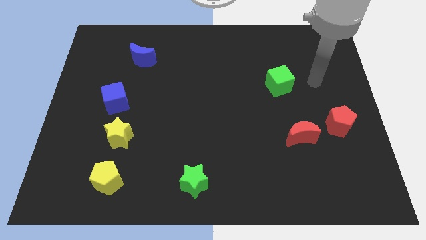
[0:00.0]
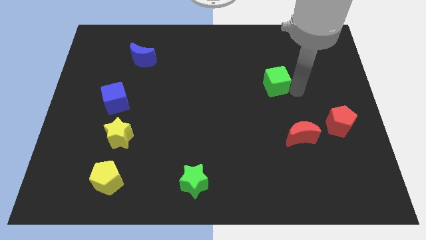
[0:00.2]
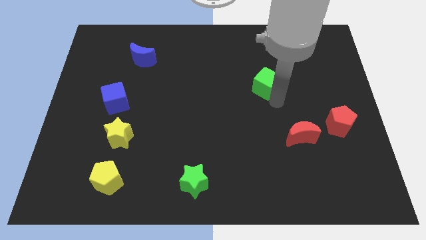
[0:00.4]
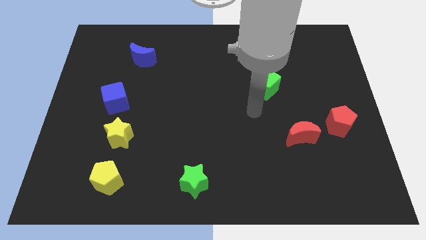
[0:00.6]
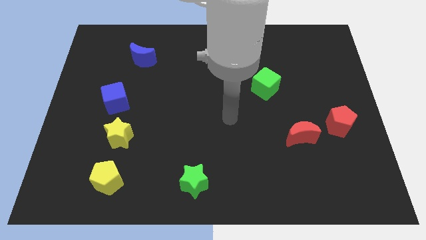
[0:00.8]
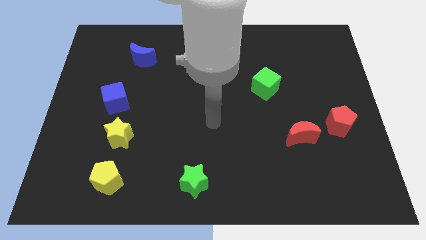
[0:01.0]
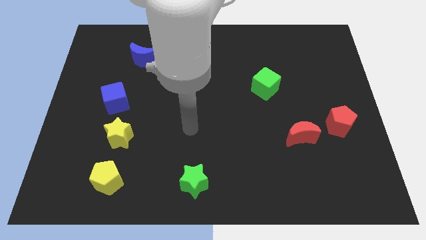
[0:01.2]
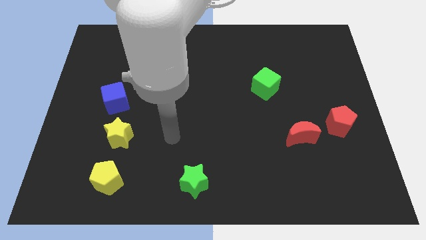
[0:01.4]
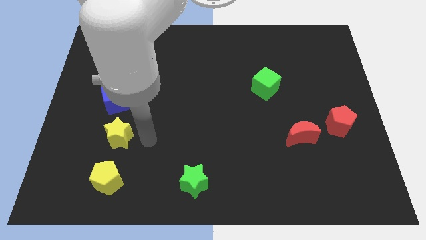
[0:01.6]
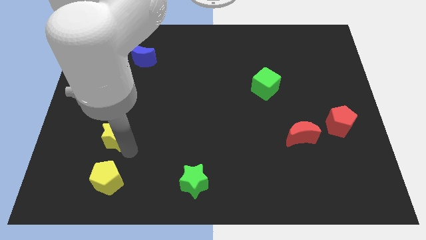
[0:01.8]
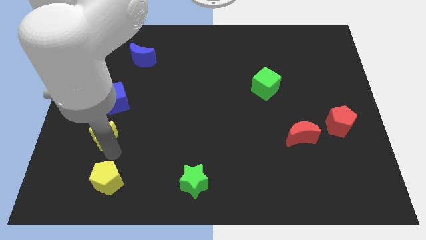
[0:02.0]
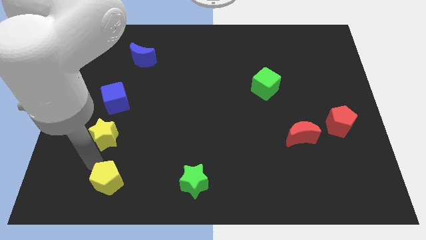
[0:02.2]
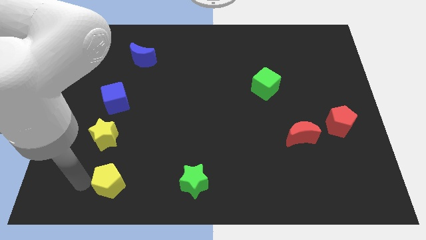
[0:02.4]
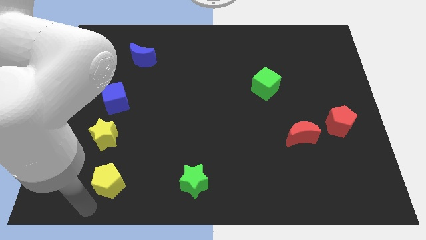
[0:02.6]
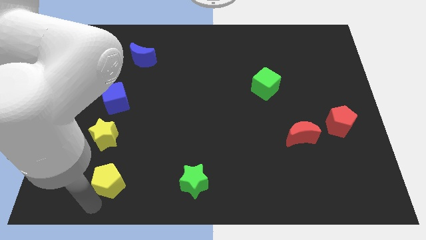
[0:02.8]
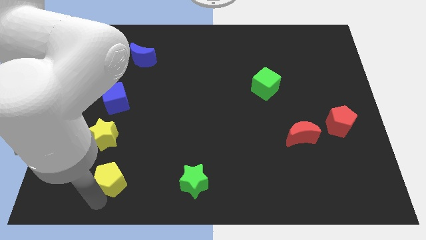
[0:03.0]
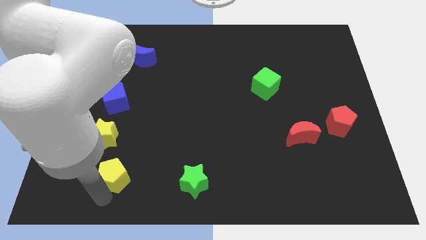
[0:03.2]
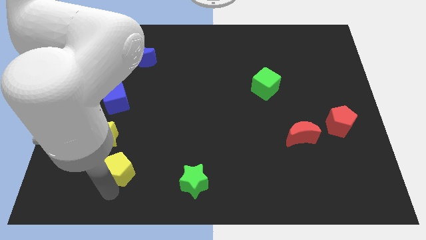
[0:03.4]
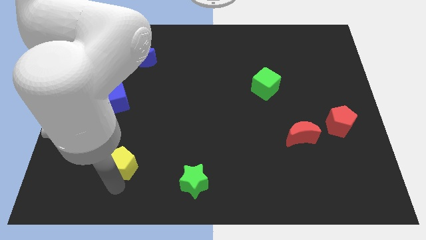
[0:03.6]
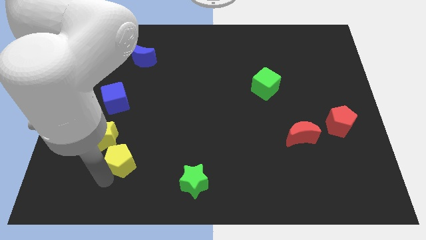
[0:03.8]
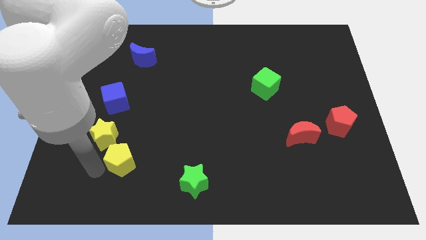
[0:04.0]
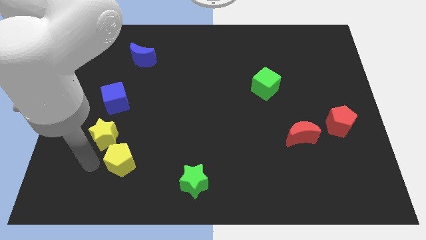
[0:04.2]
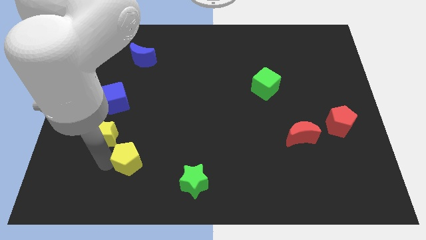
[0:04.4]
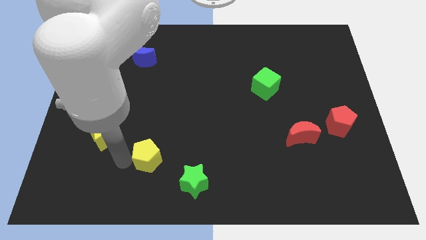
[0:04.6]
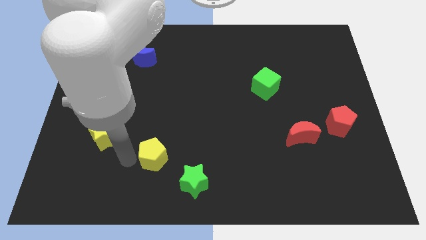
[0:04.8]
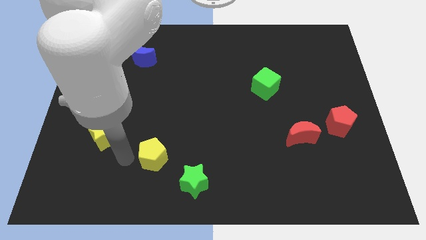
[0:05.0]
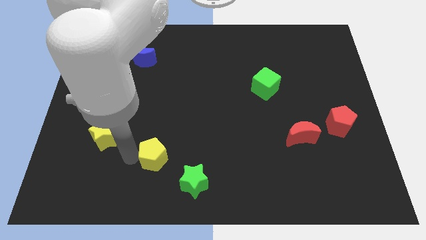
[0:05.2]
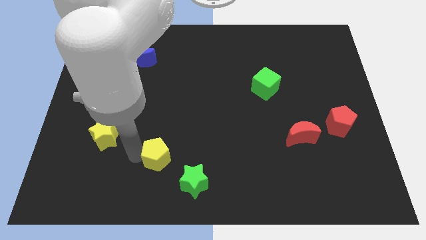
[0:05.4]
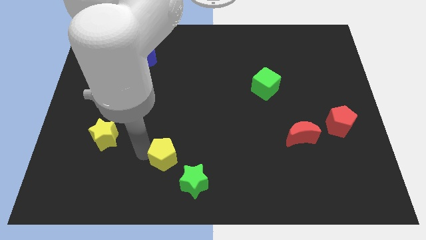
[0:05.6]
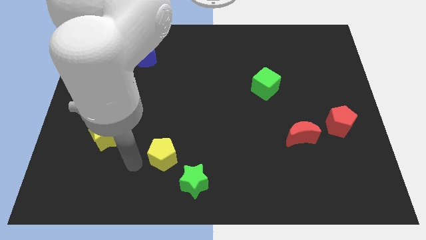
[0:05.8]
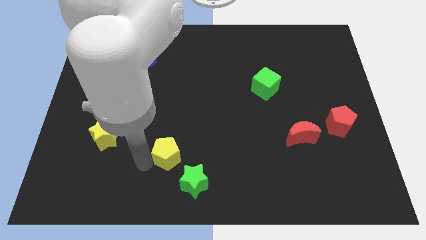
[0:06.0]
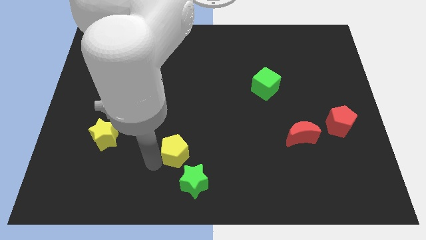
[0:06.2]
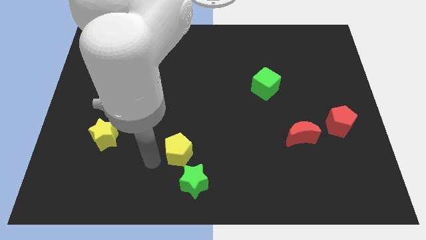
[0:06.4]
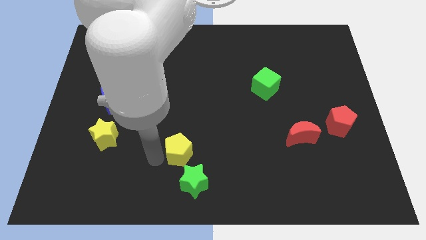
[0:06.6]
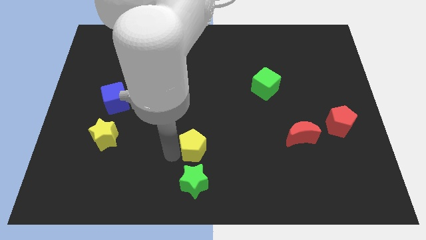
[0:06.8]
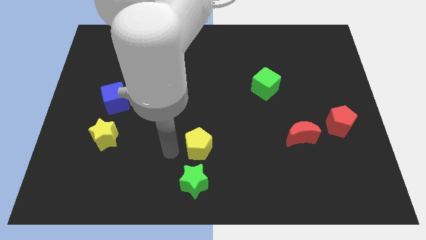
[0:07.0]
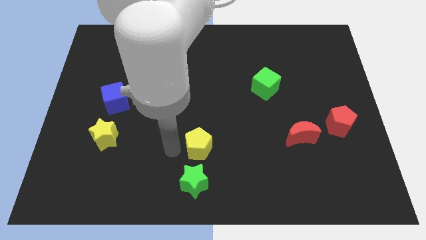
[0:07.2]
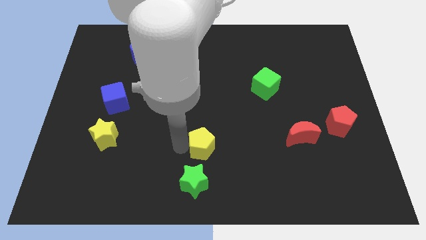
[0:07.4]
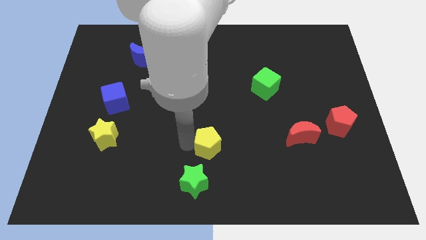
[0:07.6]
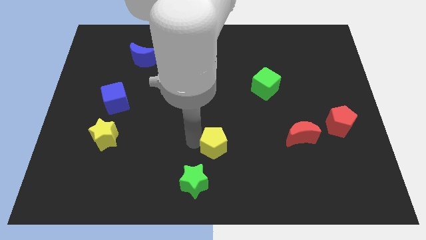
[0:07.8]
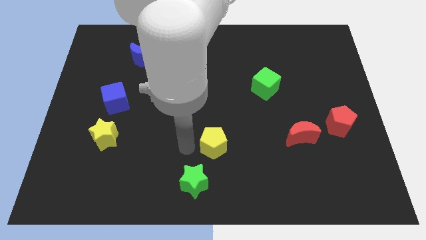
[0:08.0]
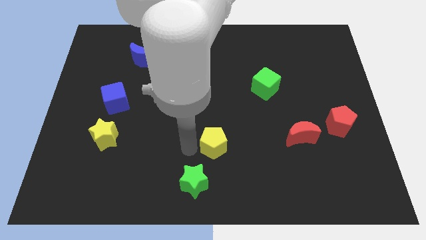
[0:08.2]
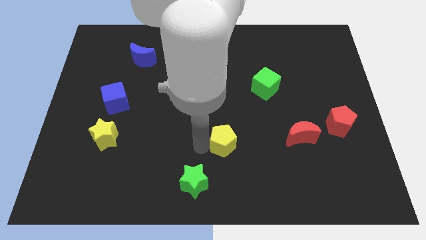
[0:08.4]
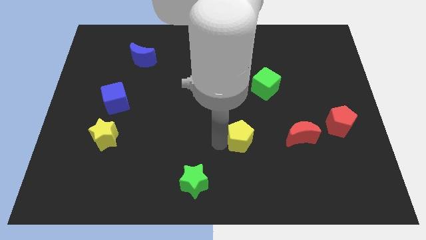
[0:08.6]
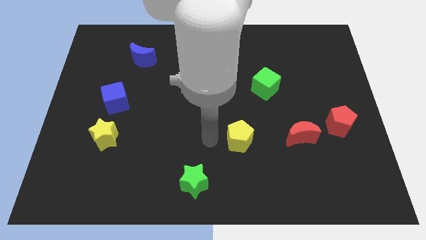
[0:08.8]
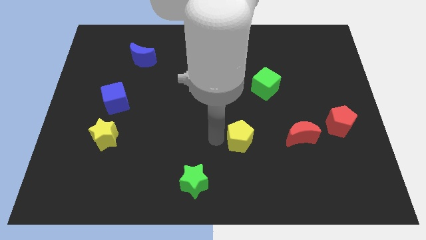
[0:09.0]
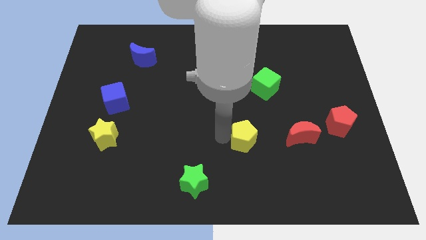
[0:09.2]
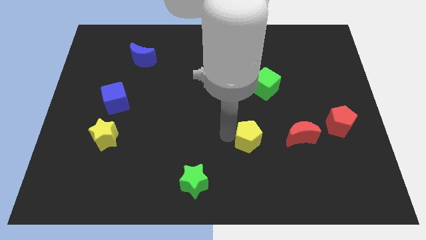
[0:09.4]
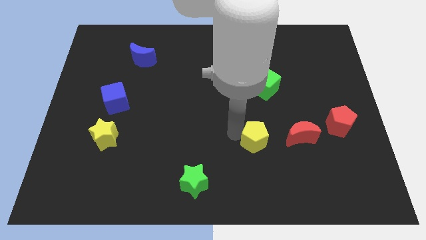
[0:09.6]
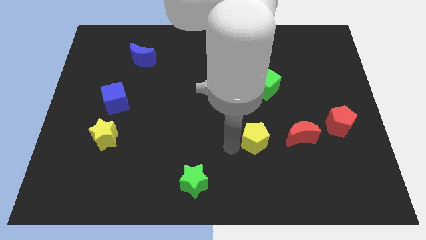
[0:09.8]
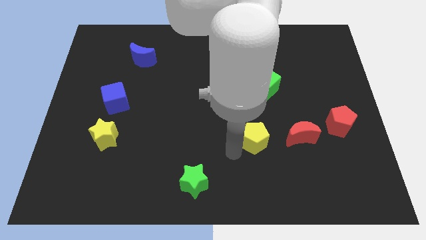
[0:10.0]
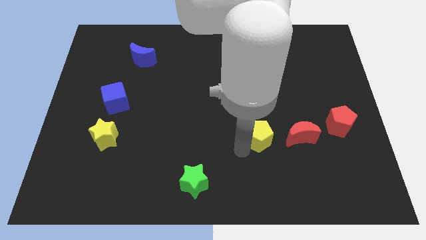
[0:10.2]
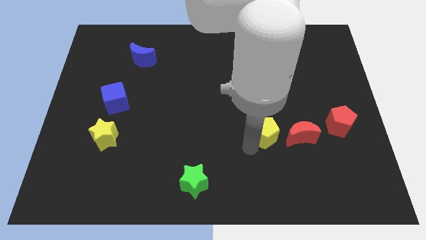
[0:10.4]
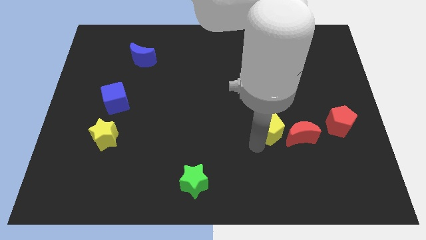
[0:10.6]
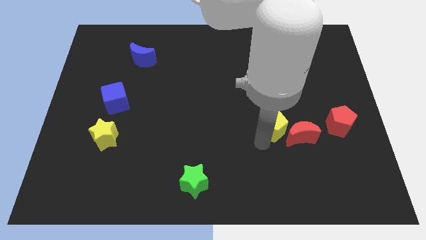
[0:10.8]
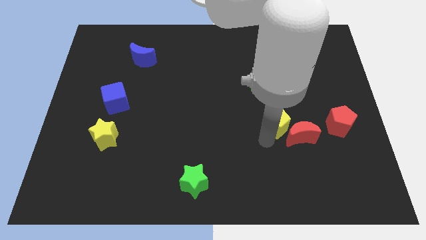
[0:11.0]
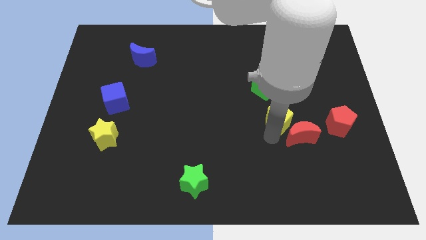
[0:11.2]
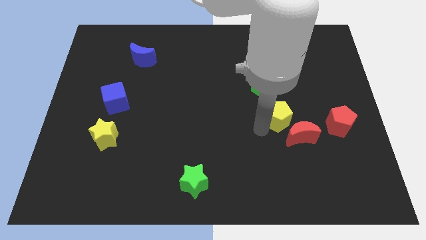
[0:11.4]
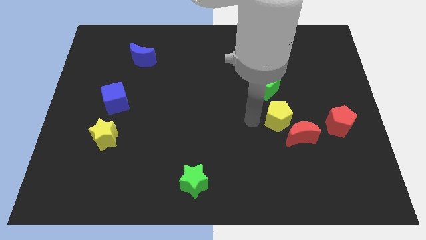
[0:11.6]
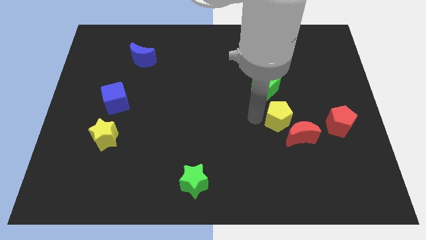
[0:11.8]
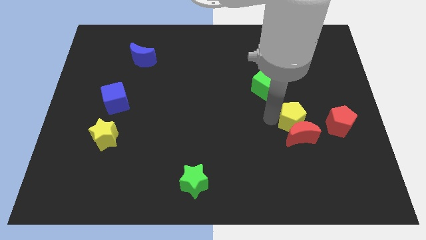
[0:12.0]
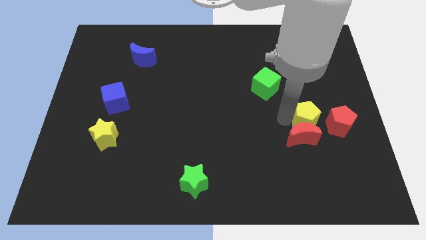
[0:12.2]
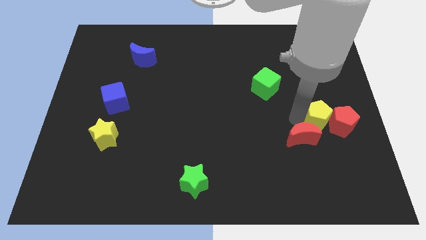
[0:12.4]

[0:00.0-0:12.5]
push the yellow pentagon towards the red pentagon

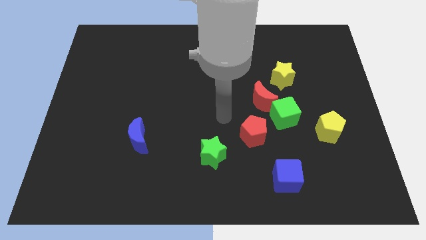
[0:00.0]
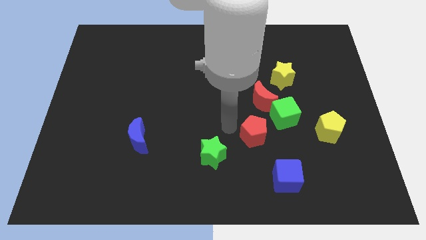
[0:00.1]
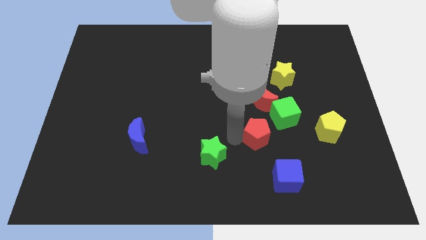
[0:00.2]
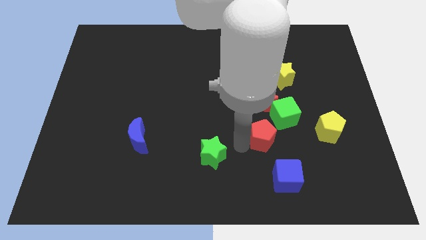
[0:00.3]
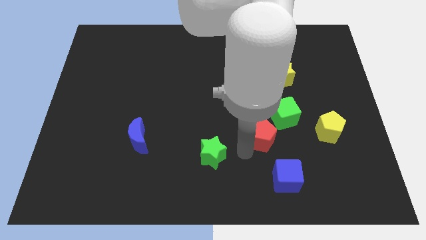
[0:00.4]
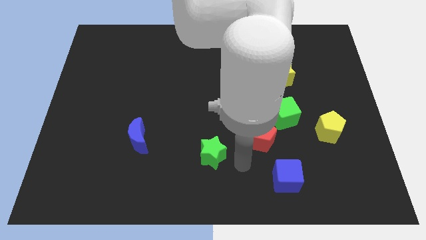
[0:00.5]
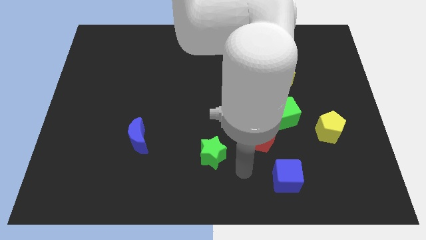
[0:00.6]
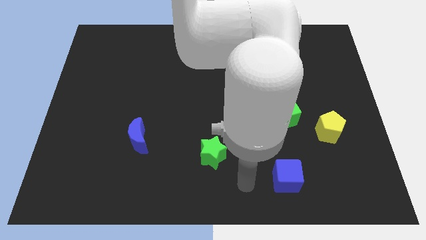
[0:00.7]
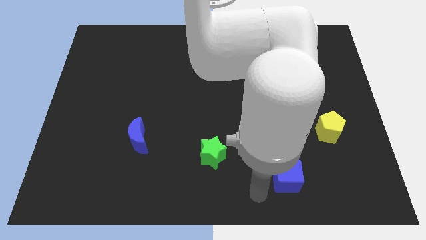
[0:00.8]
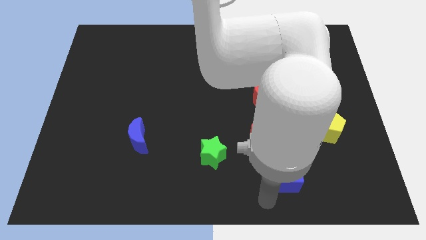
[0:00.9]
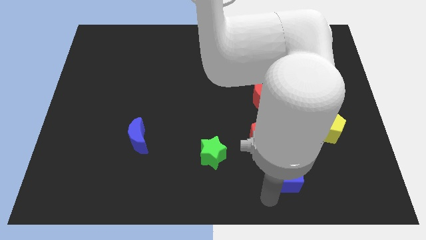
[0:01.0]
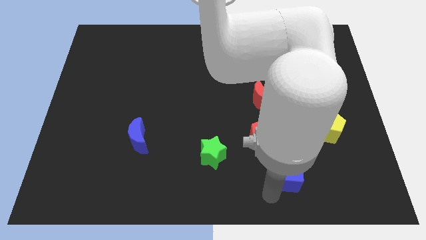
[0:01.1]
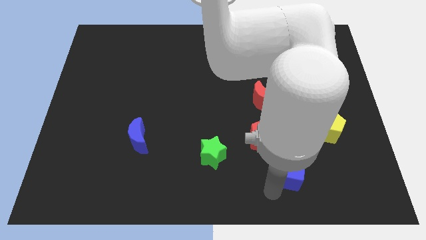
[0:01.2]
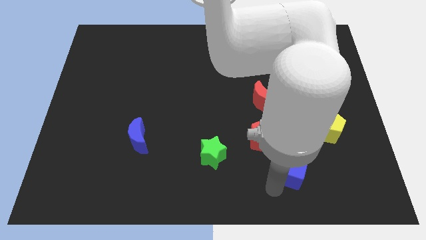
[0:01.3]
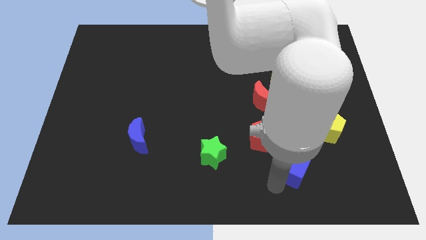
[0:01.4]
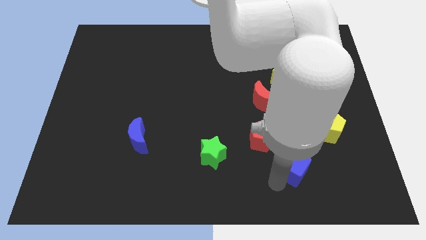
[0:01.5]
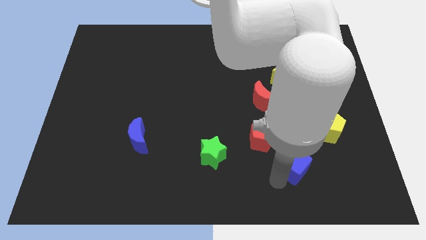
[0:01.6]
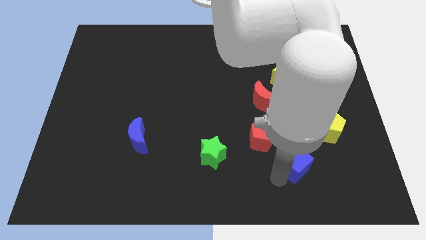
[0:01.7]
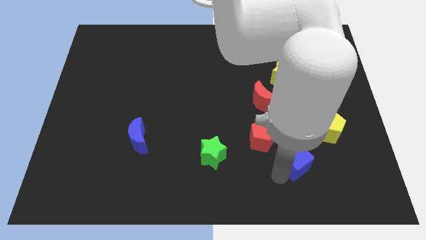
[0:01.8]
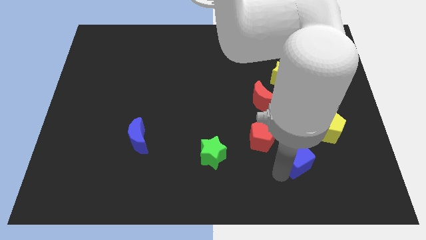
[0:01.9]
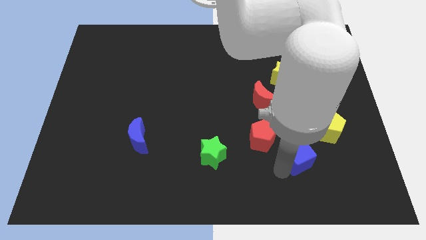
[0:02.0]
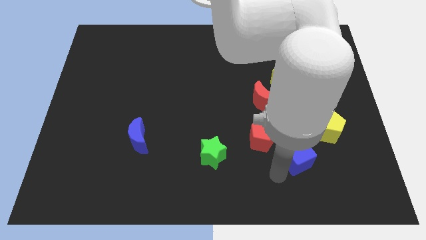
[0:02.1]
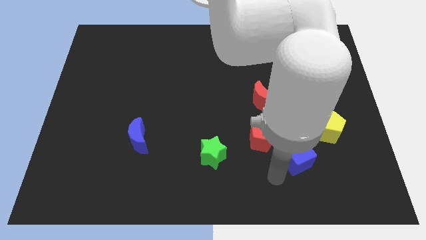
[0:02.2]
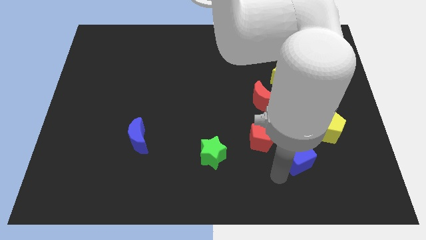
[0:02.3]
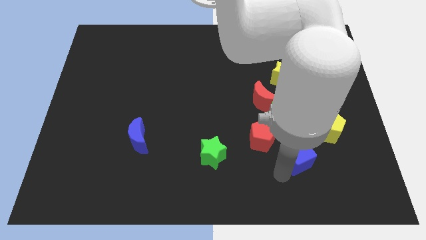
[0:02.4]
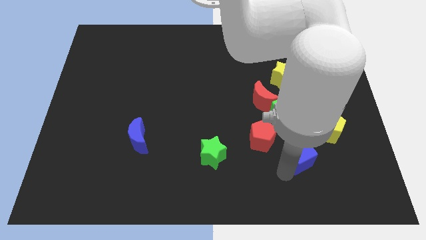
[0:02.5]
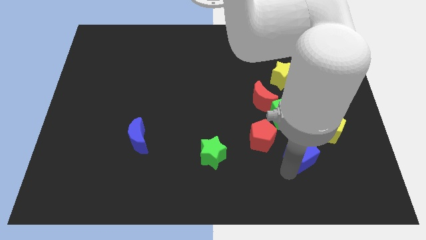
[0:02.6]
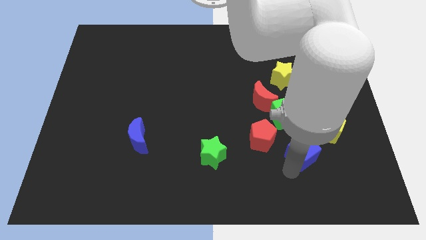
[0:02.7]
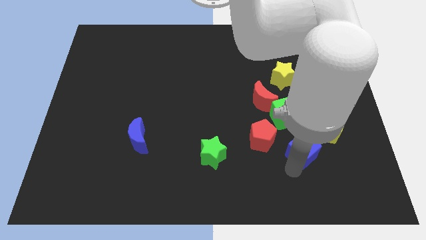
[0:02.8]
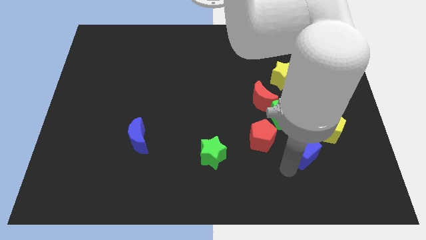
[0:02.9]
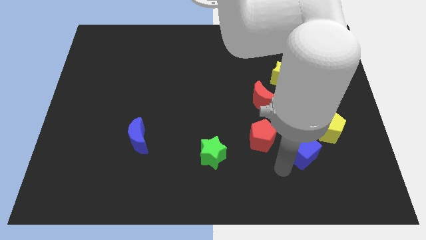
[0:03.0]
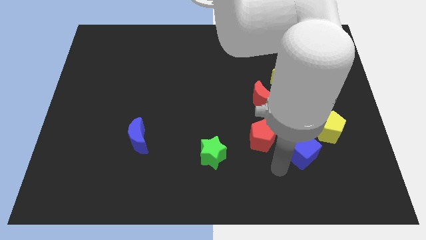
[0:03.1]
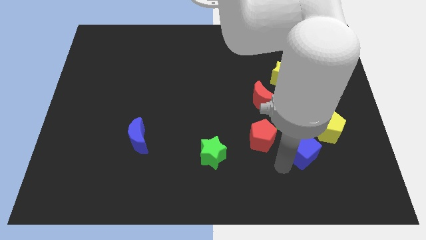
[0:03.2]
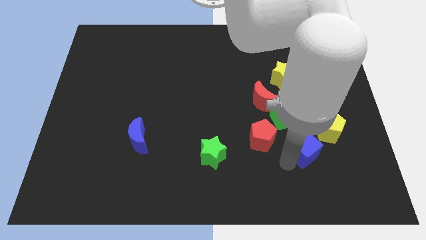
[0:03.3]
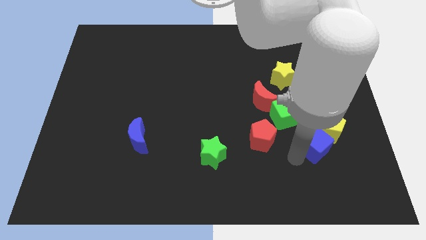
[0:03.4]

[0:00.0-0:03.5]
push the blue cube close to the yellow pentagon
